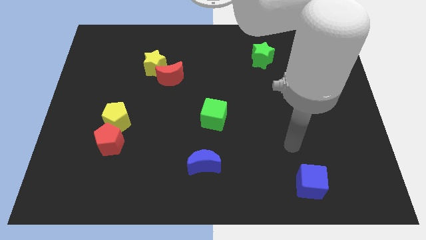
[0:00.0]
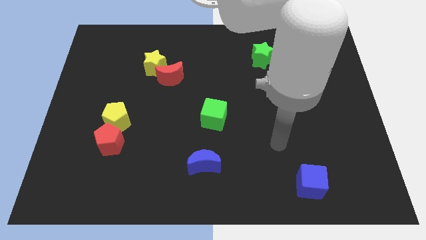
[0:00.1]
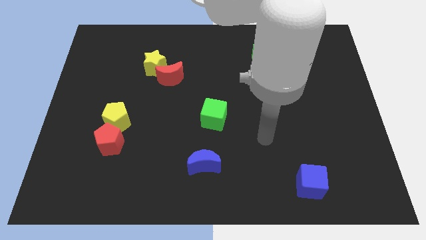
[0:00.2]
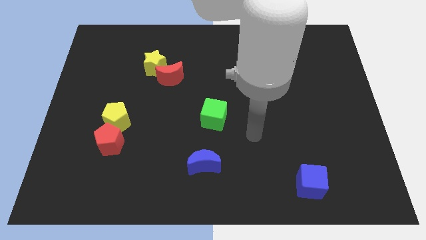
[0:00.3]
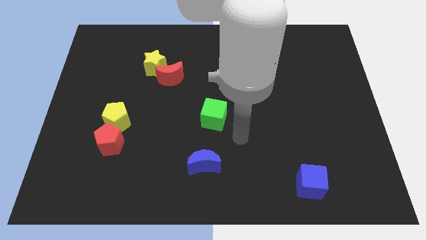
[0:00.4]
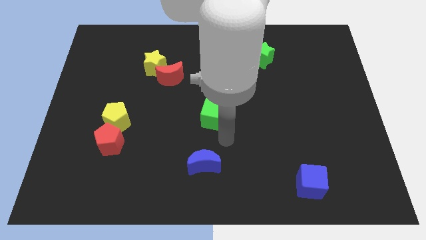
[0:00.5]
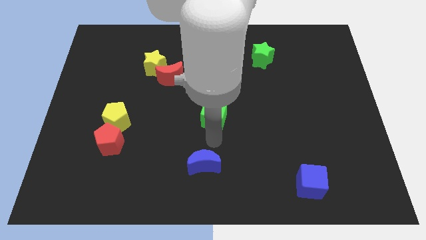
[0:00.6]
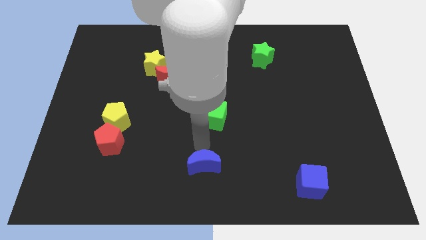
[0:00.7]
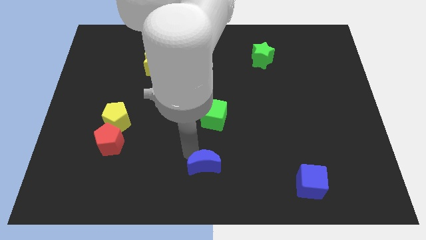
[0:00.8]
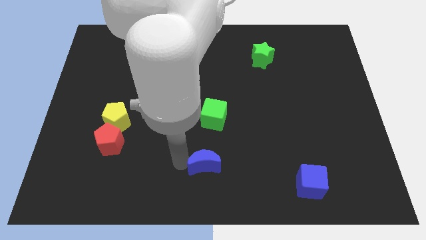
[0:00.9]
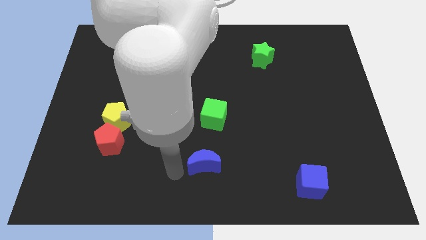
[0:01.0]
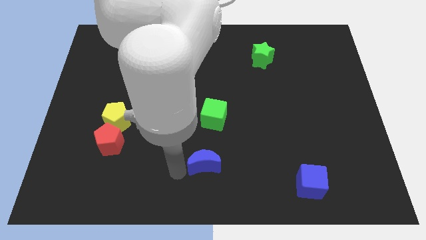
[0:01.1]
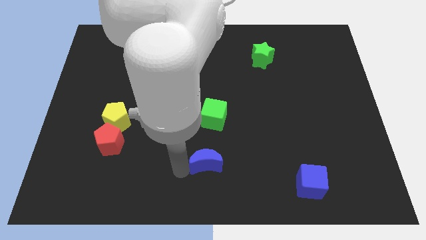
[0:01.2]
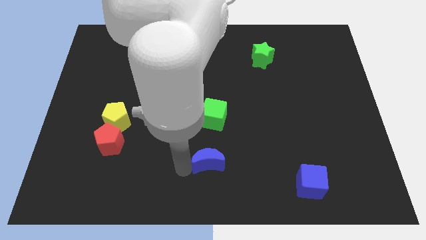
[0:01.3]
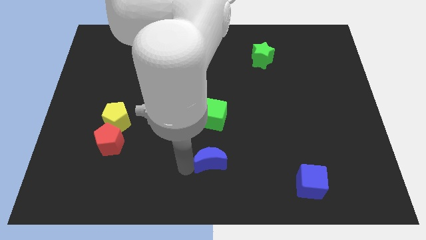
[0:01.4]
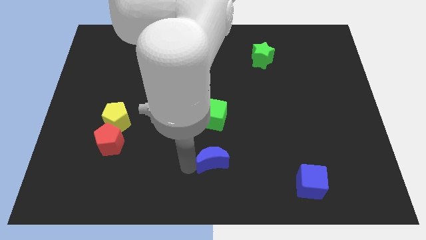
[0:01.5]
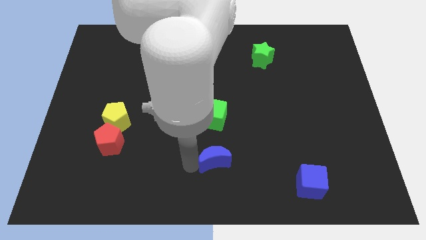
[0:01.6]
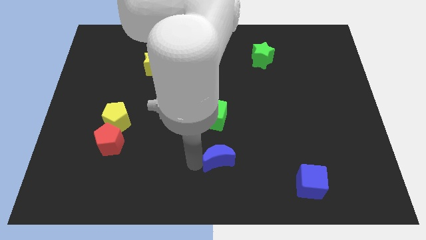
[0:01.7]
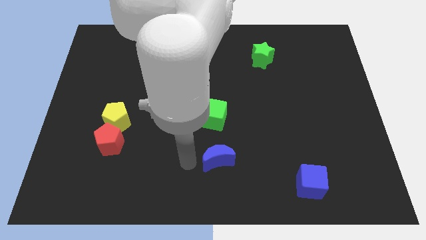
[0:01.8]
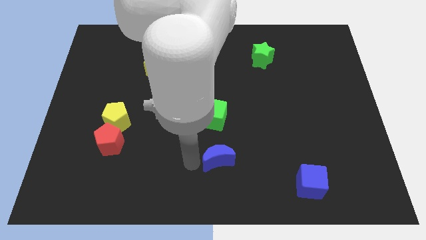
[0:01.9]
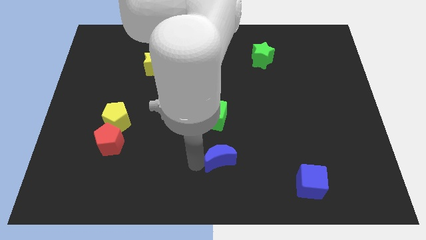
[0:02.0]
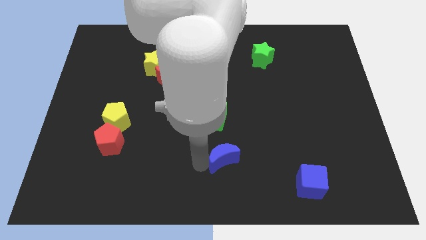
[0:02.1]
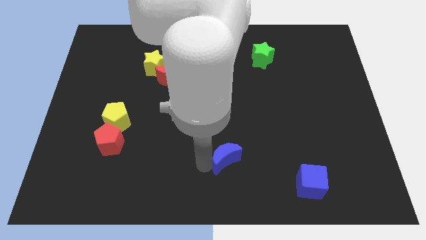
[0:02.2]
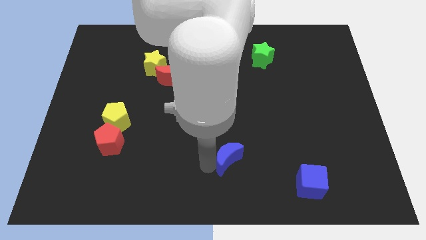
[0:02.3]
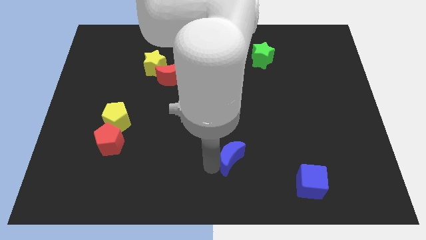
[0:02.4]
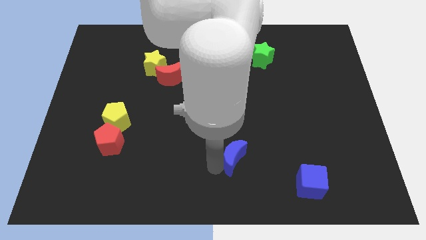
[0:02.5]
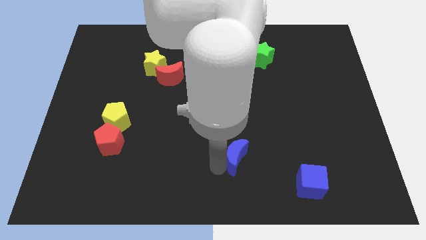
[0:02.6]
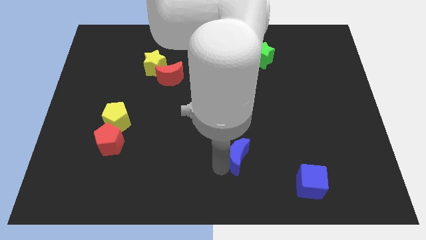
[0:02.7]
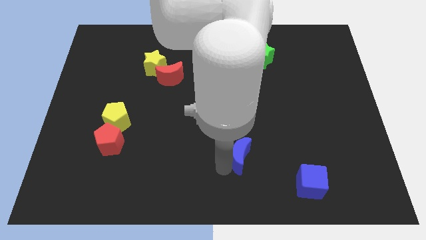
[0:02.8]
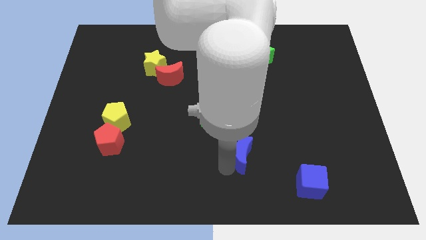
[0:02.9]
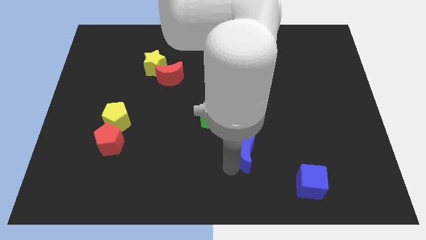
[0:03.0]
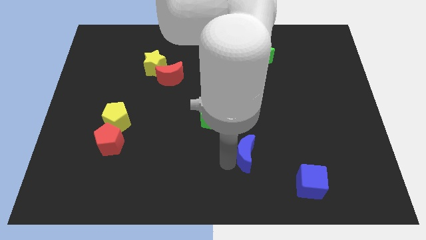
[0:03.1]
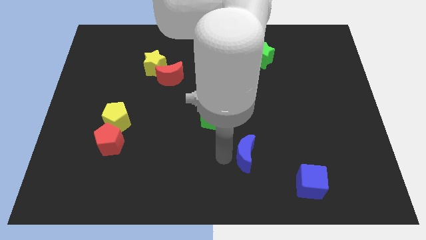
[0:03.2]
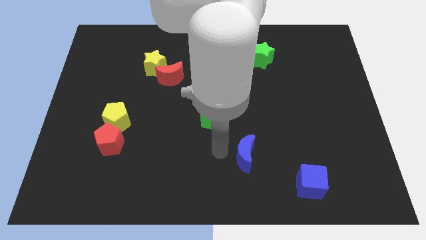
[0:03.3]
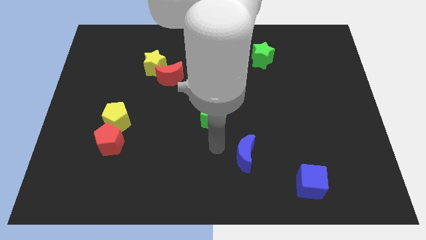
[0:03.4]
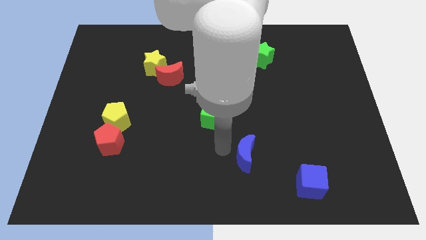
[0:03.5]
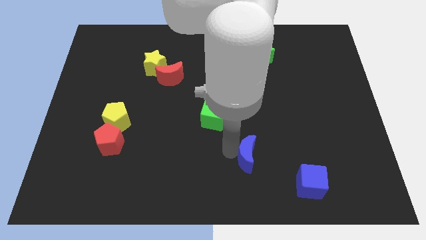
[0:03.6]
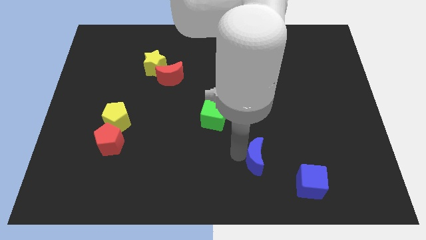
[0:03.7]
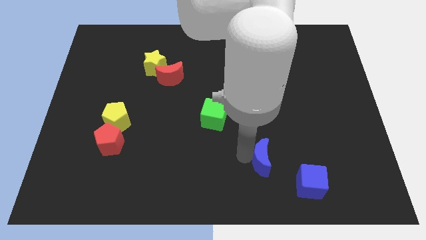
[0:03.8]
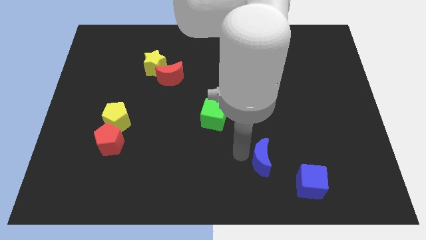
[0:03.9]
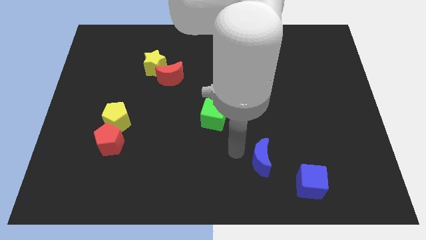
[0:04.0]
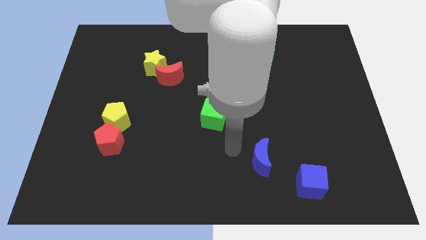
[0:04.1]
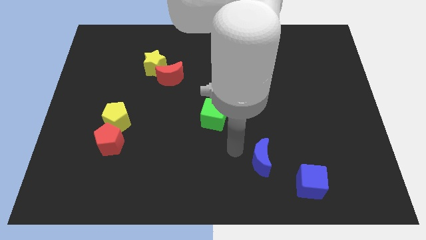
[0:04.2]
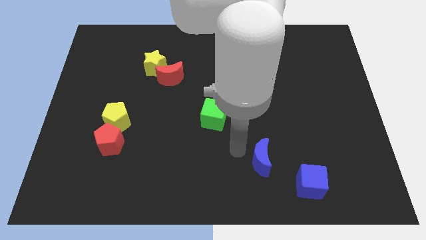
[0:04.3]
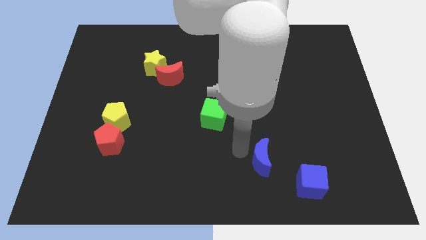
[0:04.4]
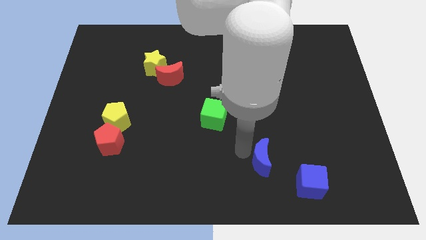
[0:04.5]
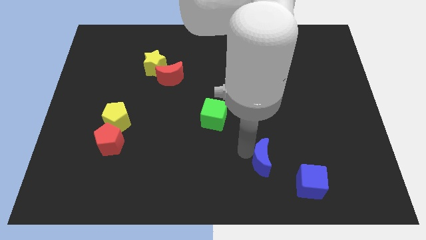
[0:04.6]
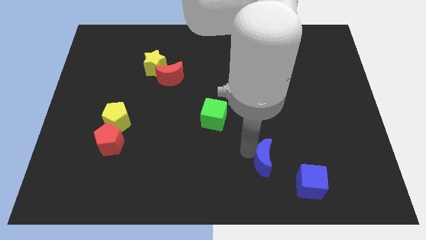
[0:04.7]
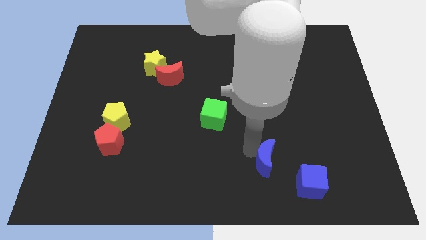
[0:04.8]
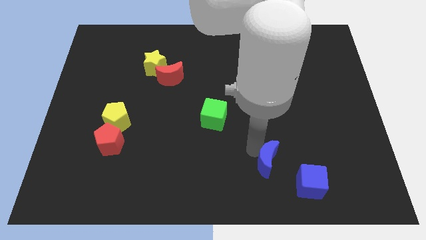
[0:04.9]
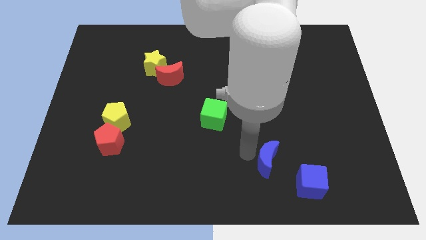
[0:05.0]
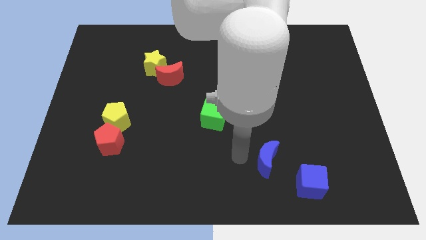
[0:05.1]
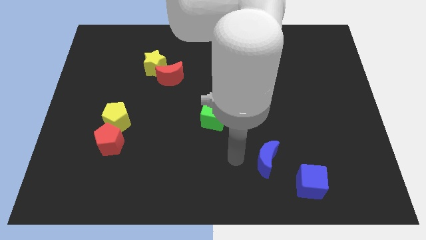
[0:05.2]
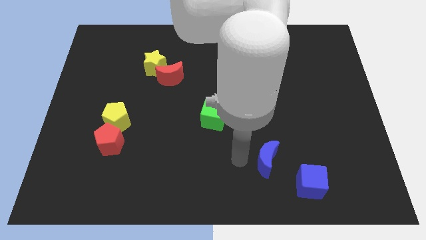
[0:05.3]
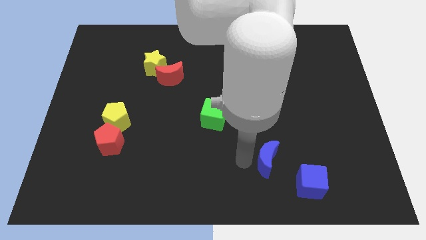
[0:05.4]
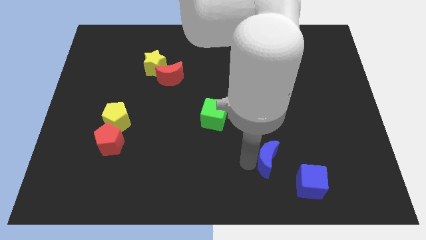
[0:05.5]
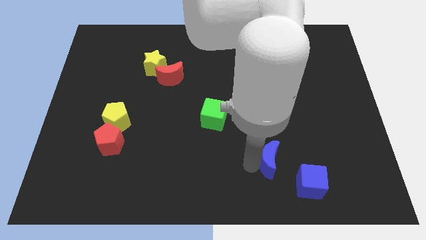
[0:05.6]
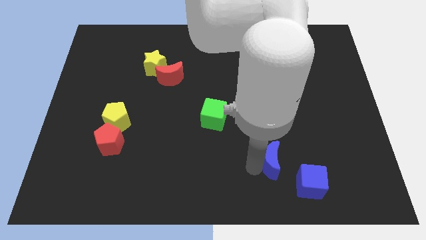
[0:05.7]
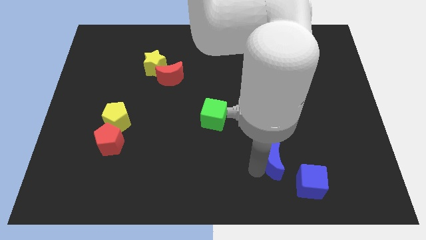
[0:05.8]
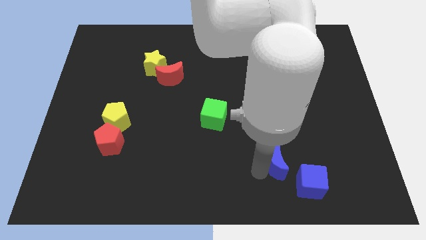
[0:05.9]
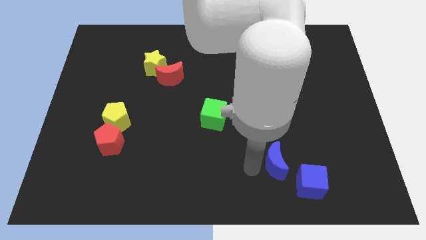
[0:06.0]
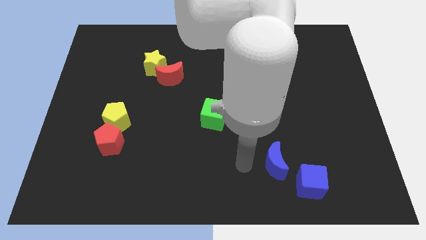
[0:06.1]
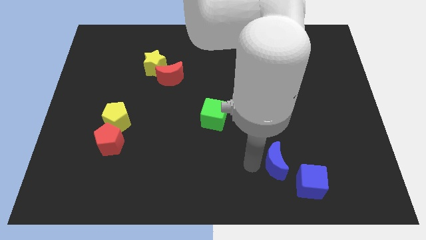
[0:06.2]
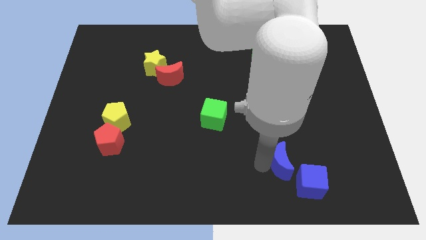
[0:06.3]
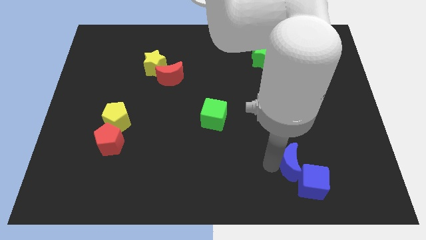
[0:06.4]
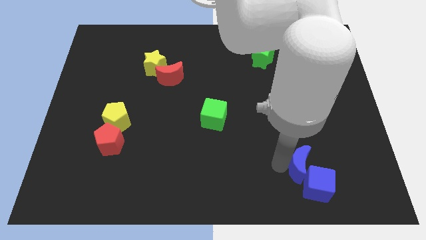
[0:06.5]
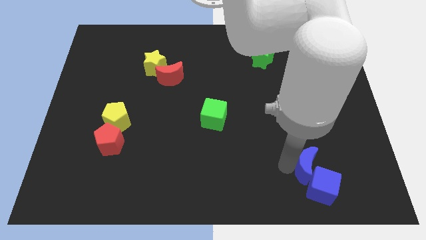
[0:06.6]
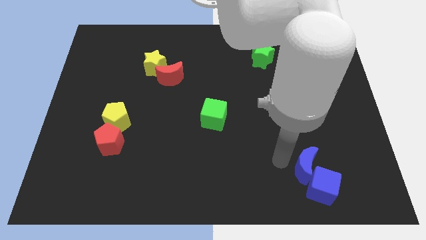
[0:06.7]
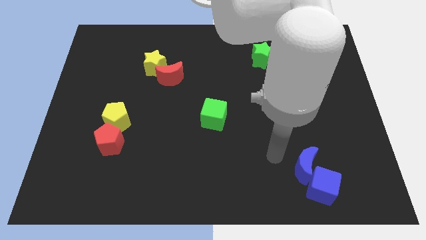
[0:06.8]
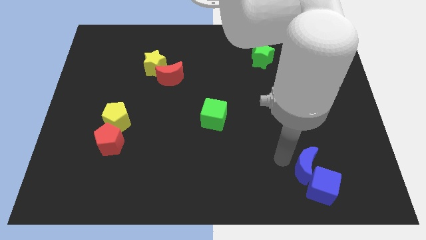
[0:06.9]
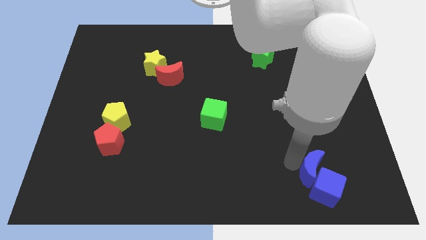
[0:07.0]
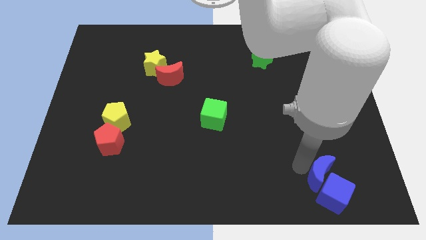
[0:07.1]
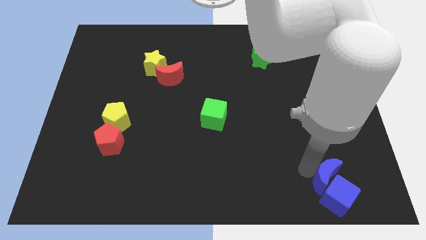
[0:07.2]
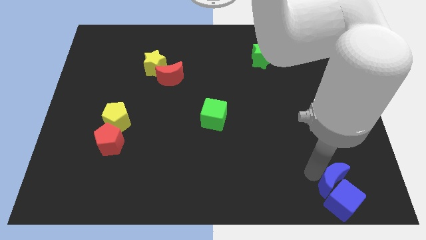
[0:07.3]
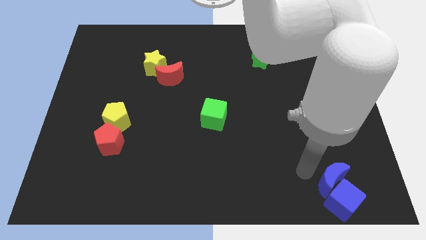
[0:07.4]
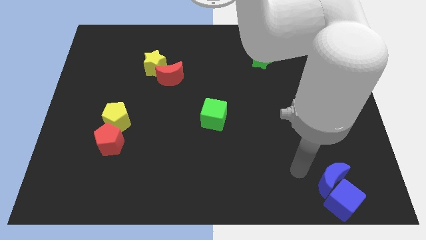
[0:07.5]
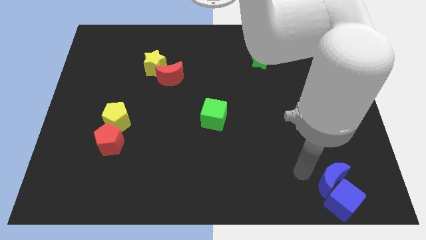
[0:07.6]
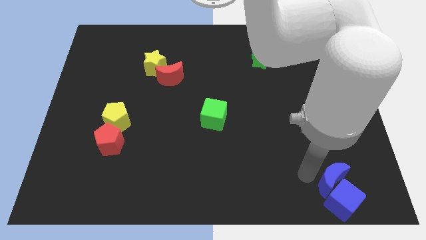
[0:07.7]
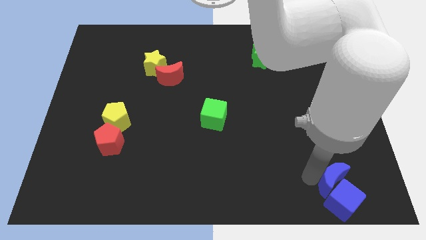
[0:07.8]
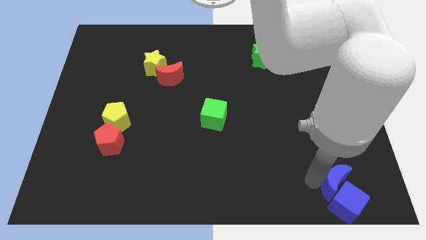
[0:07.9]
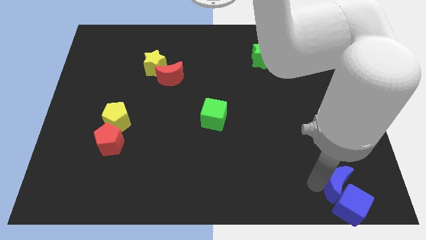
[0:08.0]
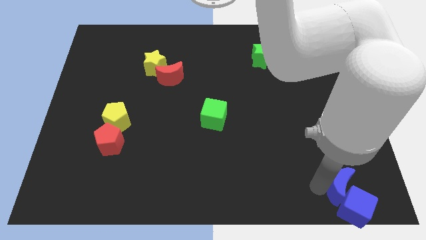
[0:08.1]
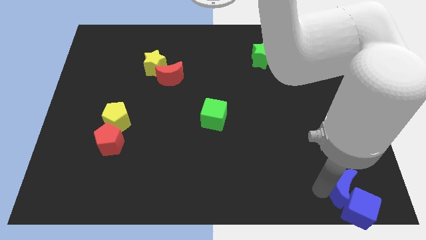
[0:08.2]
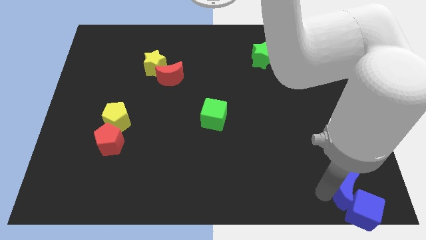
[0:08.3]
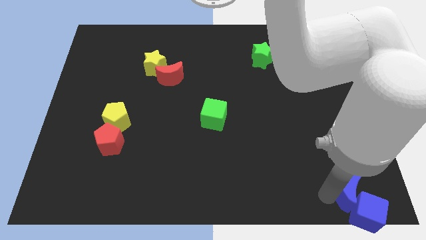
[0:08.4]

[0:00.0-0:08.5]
slide the blue moon to the lower right corner
